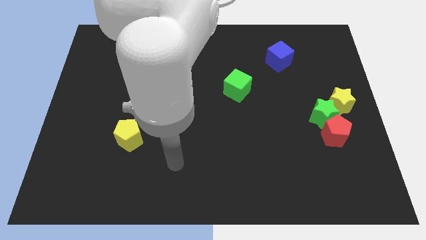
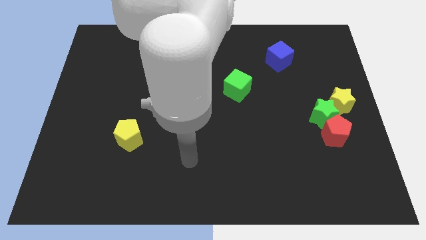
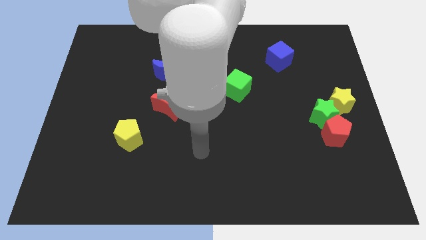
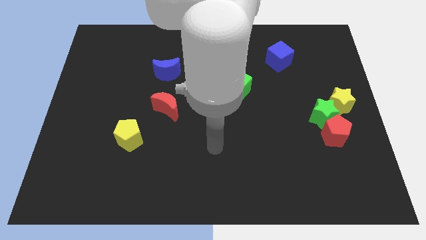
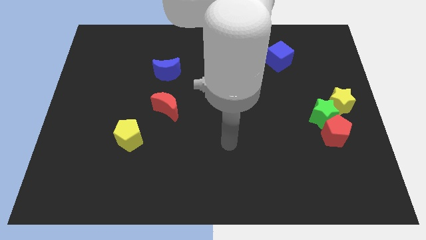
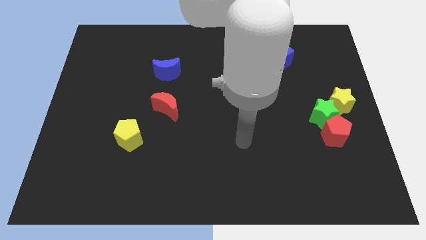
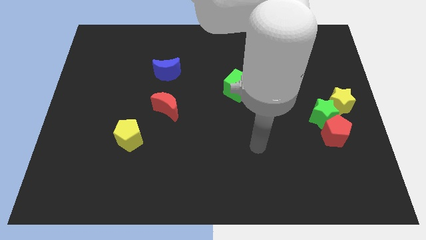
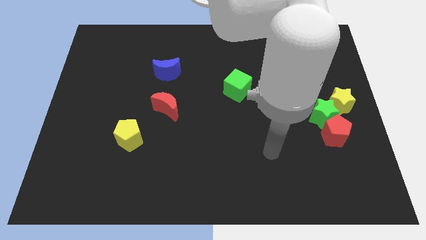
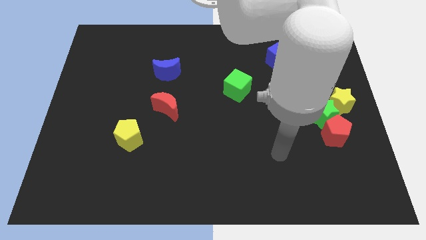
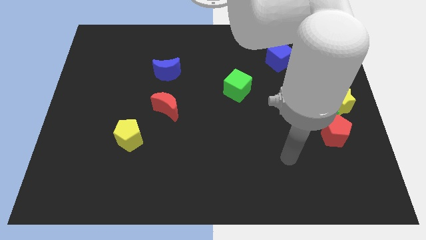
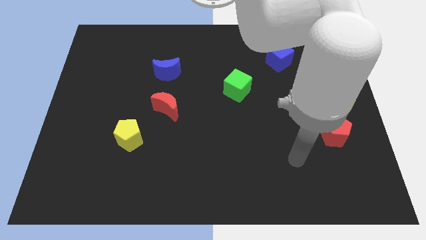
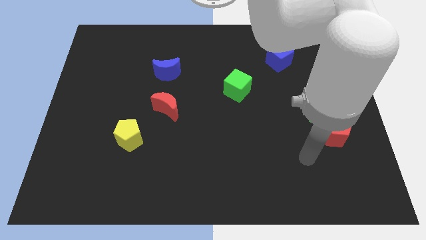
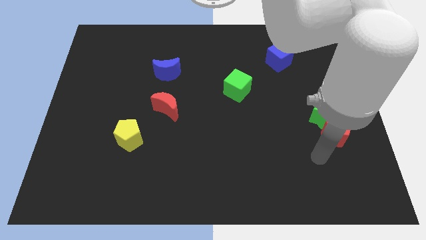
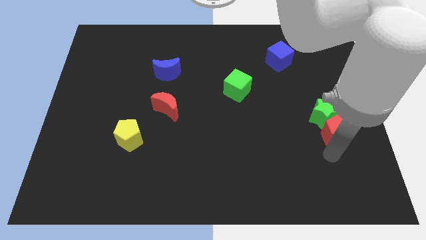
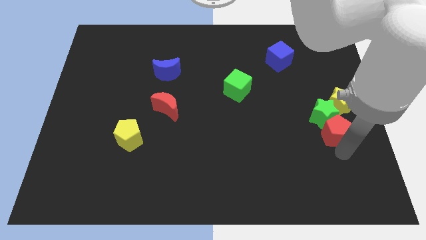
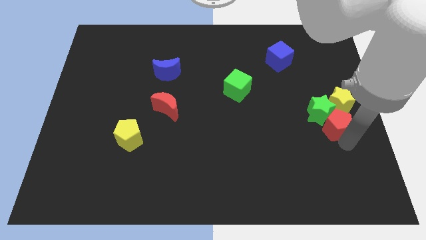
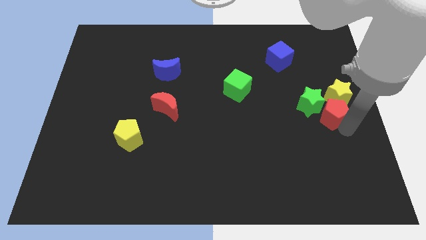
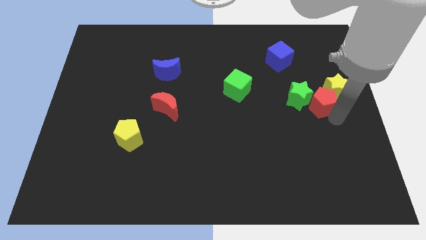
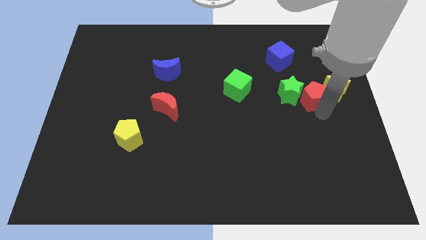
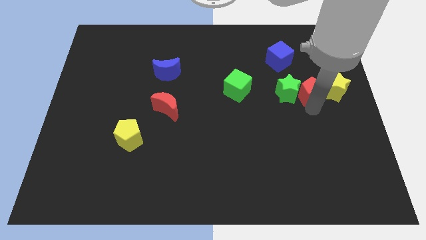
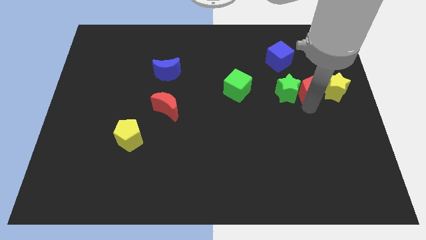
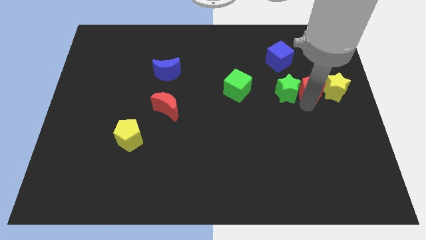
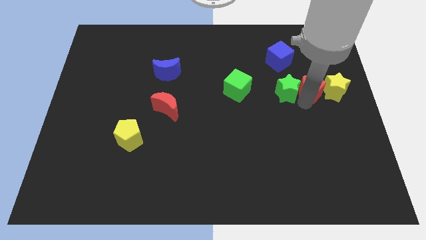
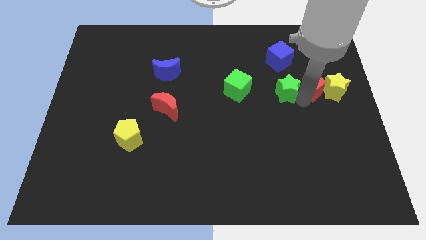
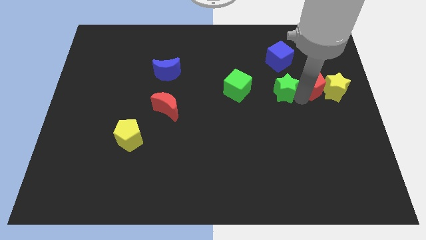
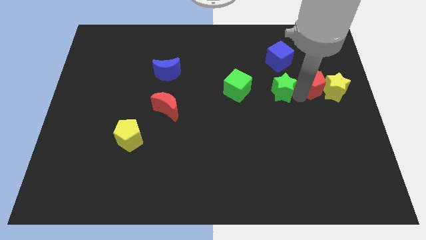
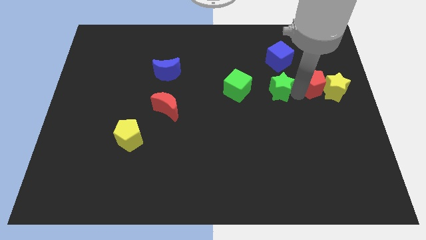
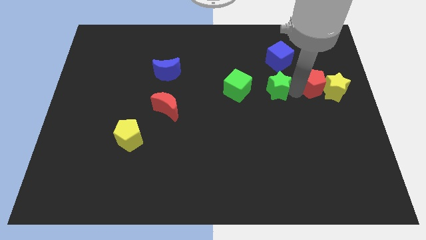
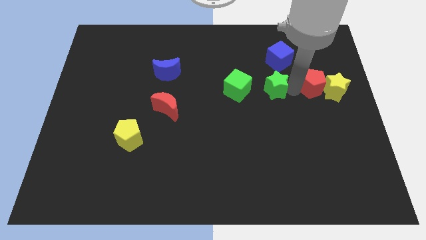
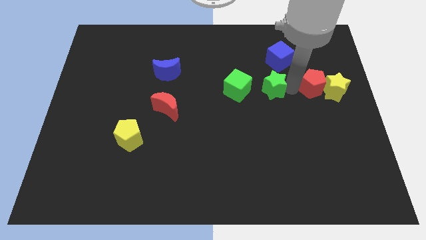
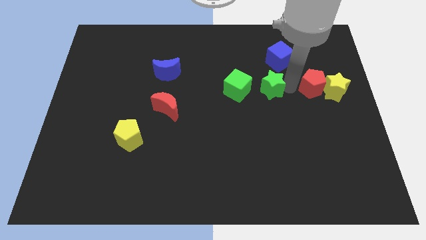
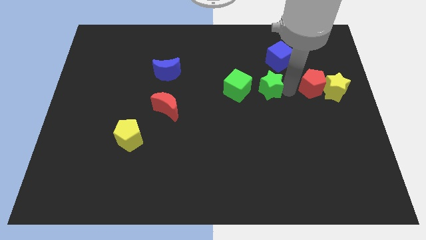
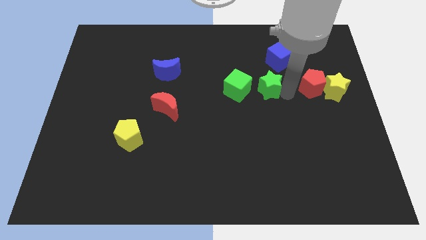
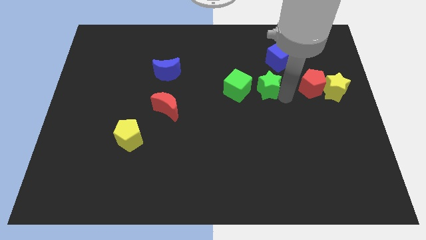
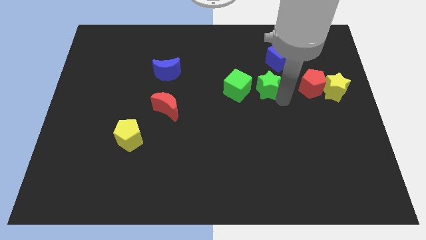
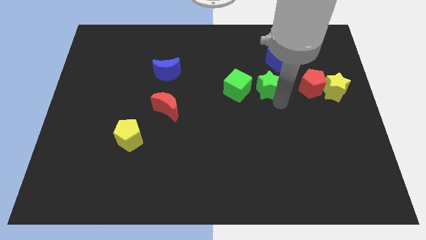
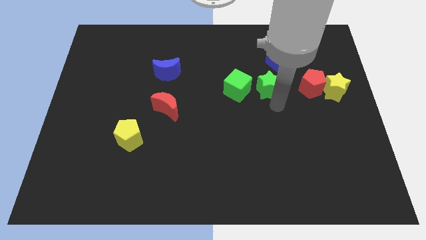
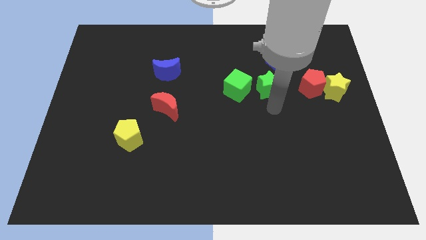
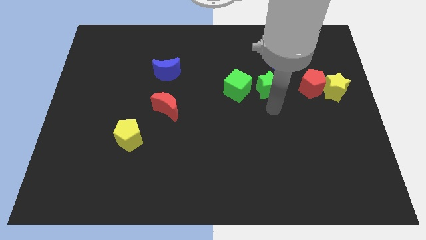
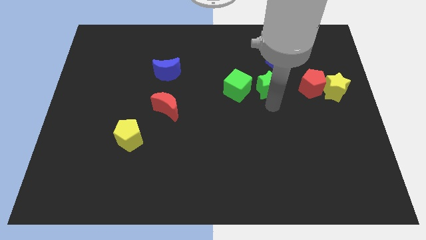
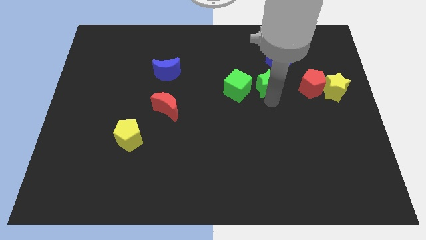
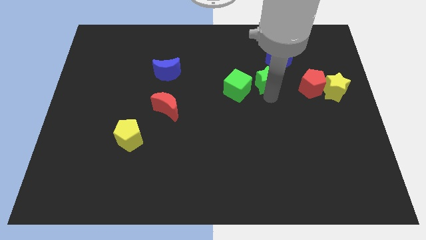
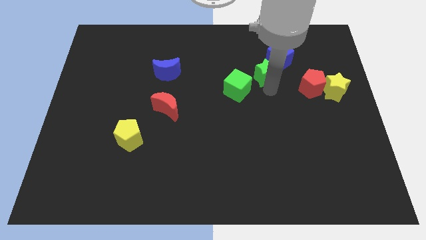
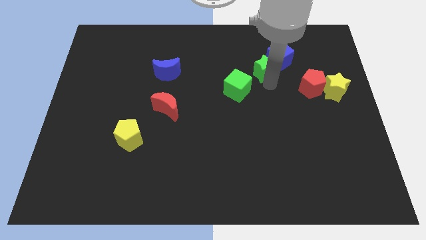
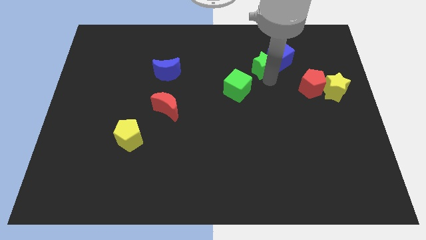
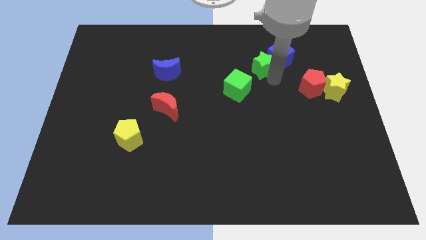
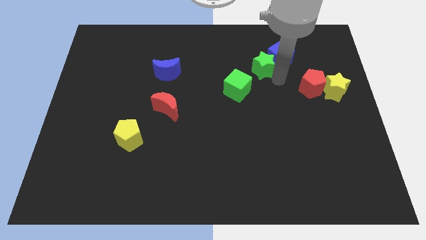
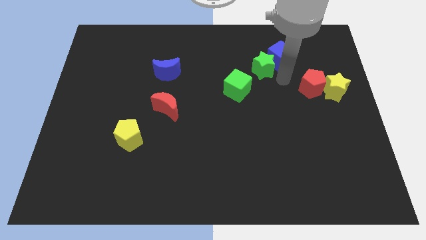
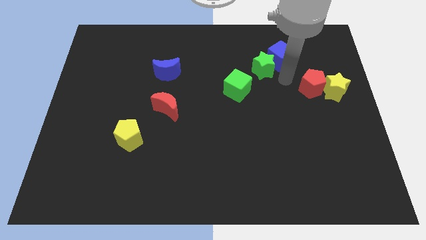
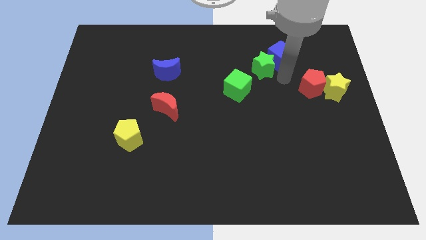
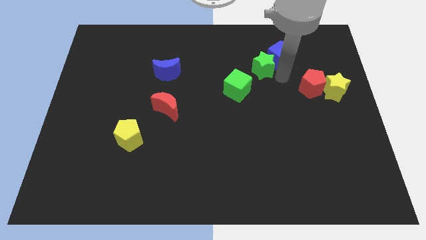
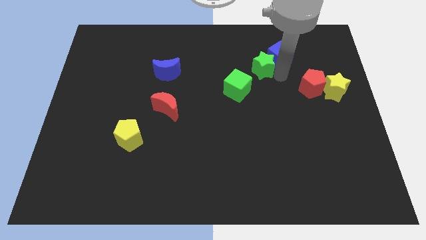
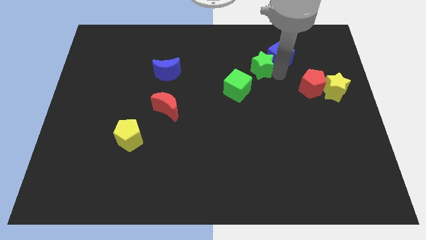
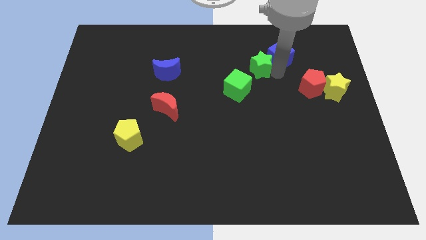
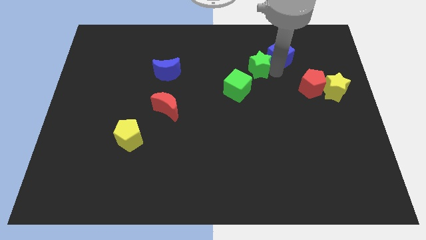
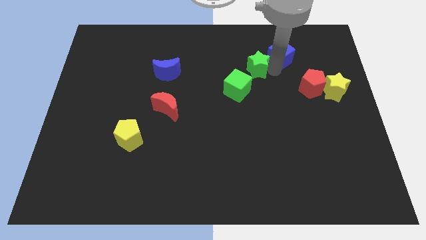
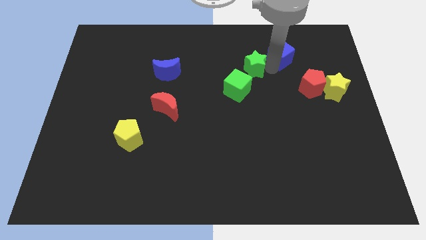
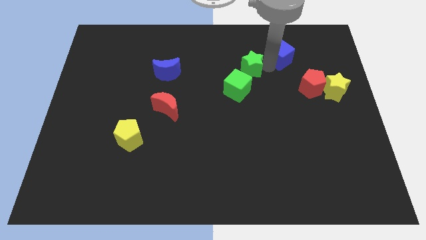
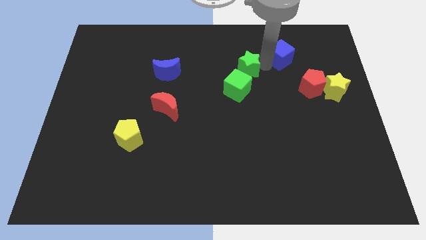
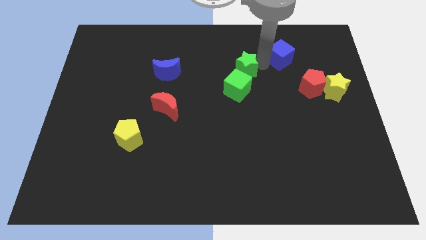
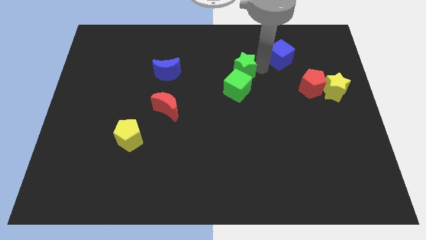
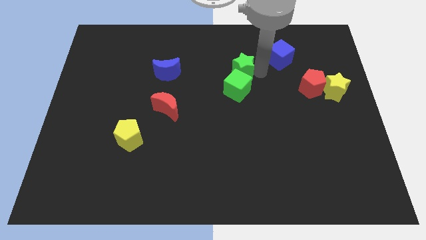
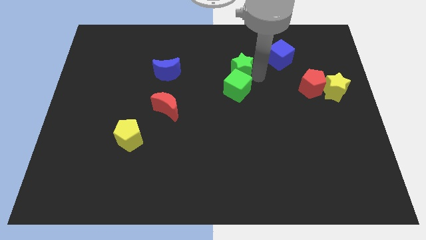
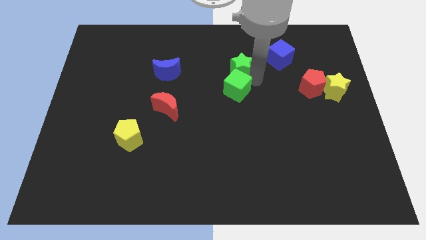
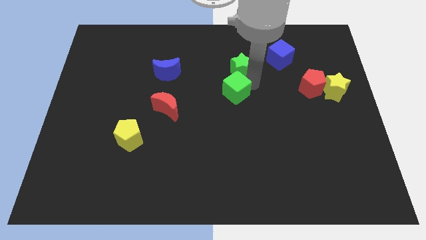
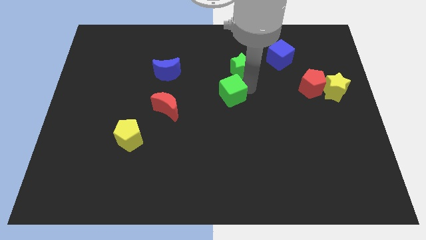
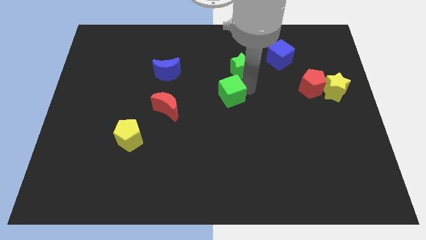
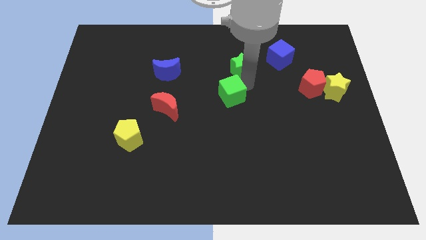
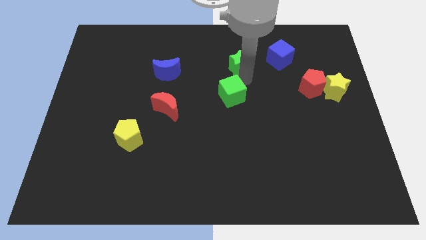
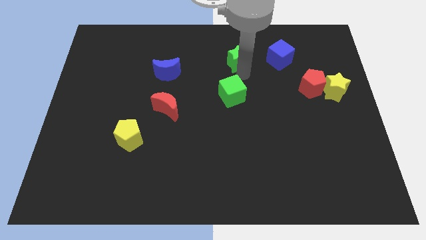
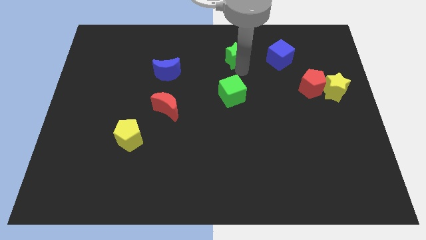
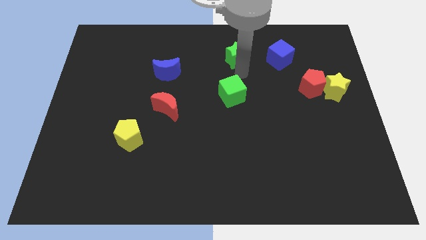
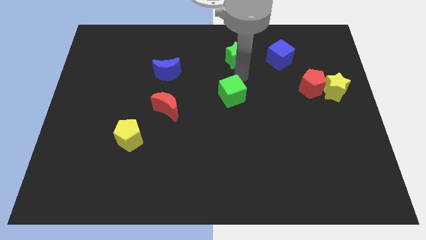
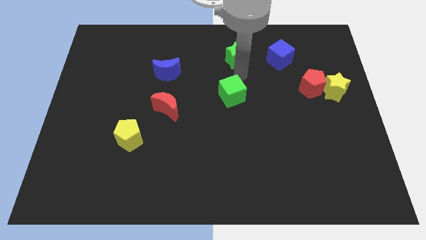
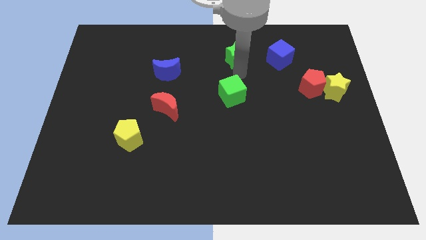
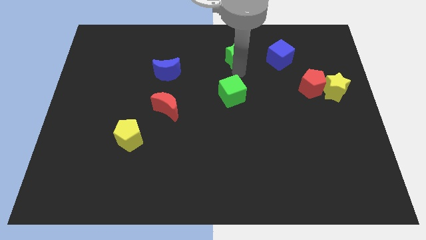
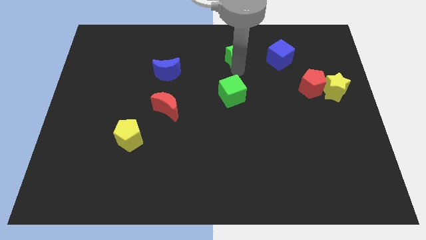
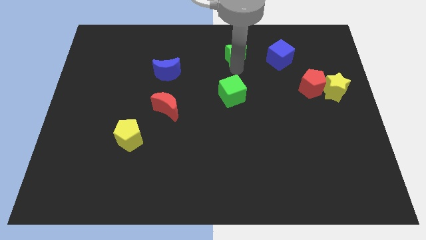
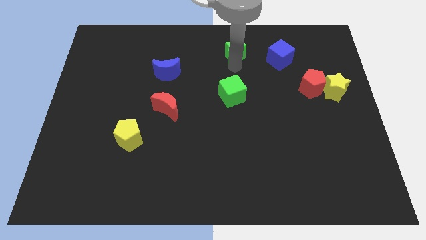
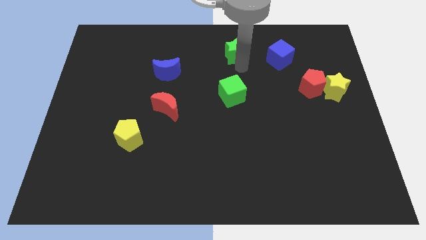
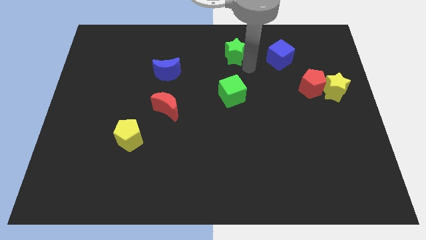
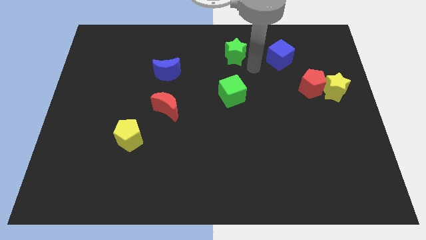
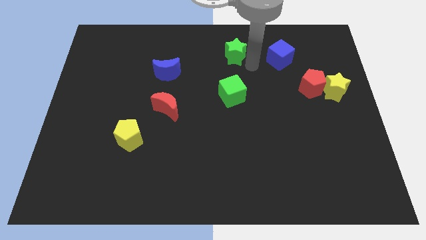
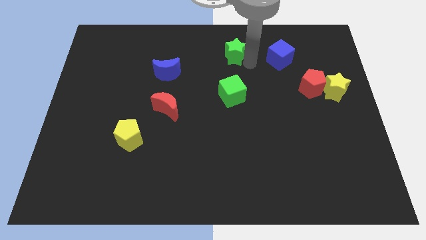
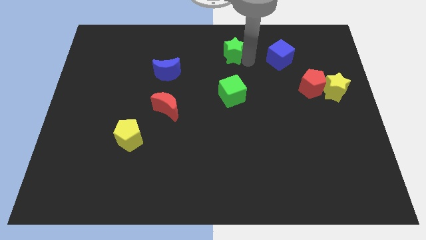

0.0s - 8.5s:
push the green star to the top side
